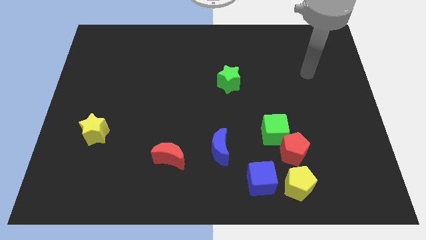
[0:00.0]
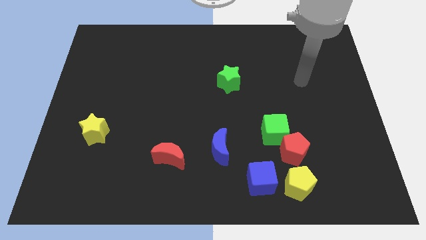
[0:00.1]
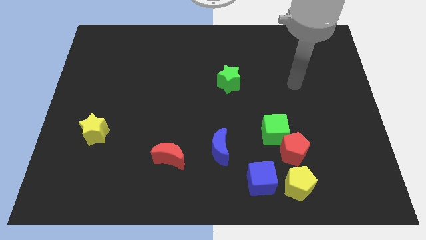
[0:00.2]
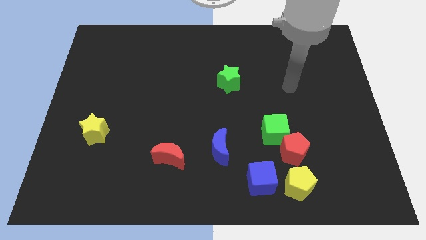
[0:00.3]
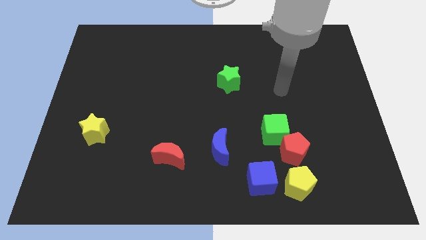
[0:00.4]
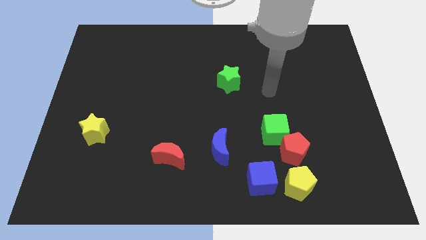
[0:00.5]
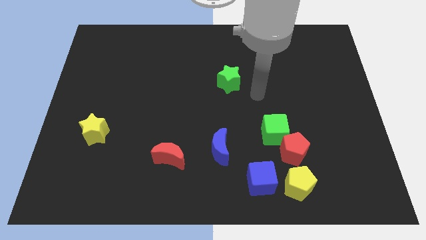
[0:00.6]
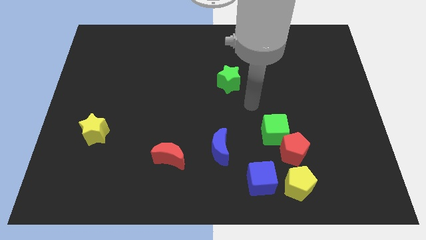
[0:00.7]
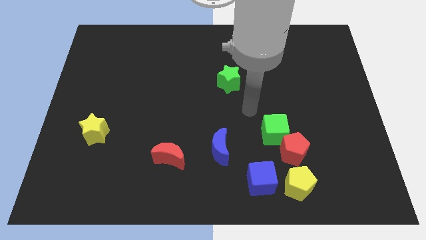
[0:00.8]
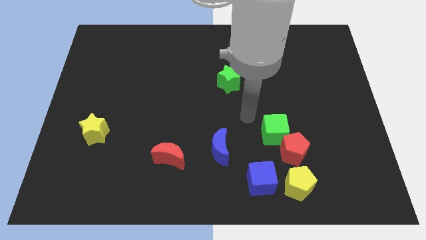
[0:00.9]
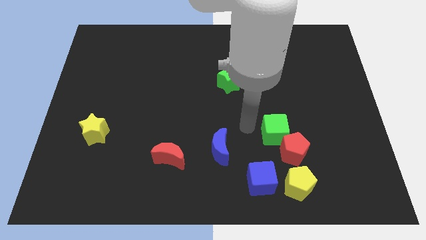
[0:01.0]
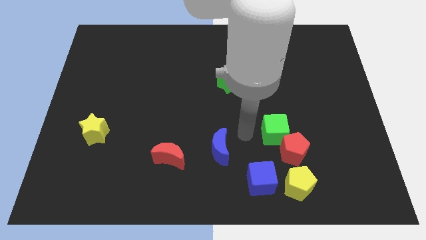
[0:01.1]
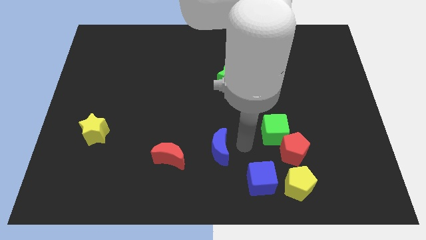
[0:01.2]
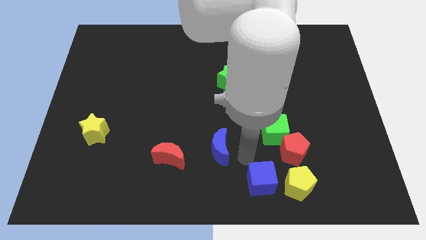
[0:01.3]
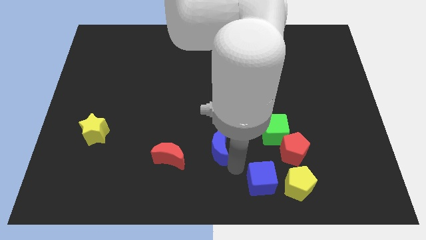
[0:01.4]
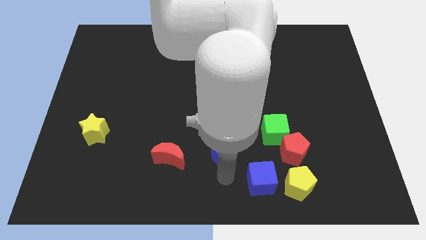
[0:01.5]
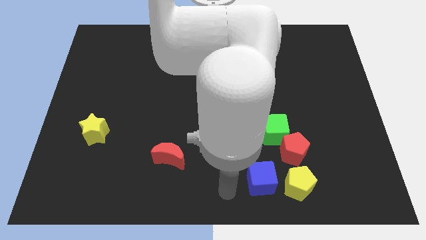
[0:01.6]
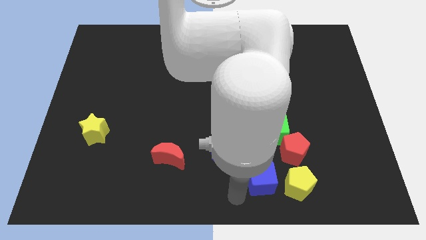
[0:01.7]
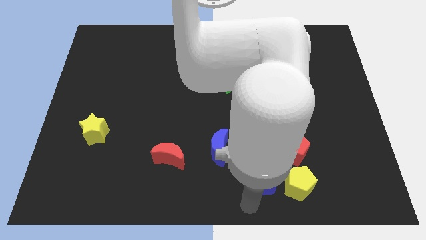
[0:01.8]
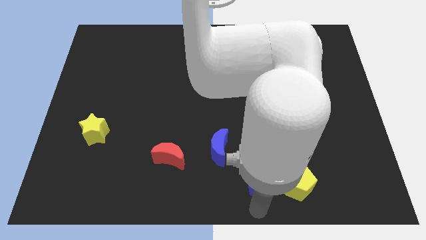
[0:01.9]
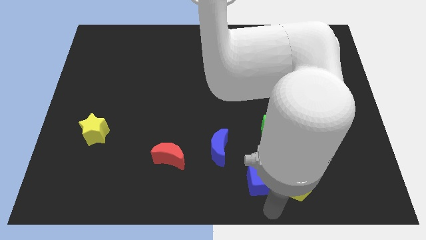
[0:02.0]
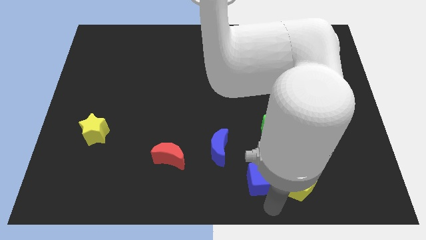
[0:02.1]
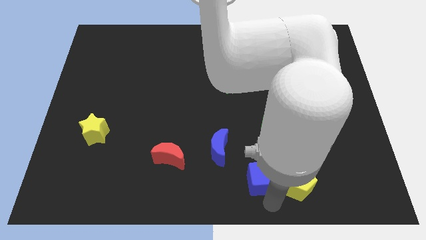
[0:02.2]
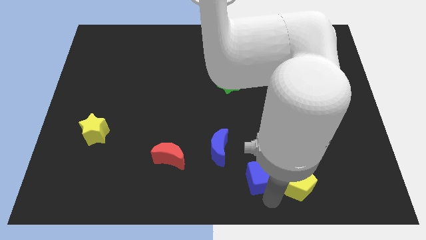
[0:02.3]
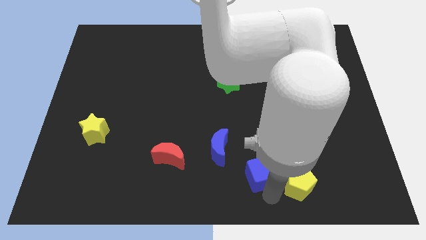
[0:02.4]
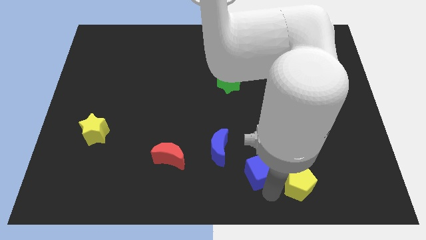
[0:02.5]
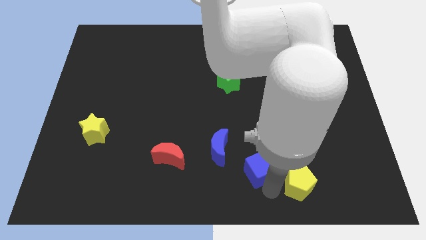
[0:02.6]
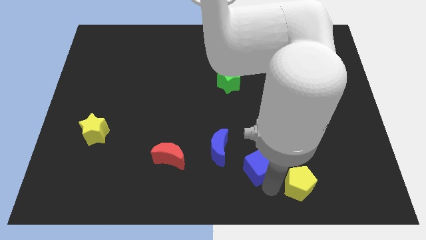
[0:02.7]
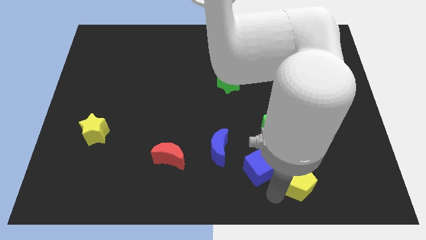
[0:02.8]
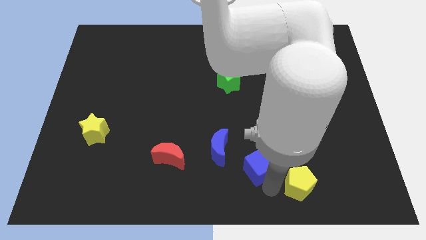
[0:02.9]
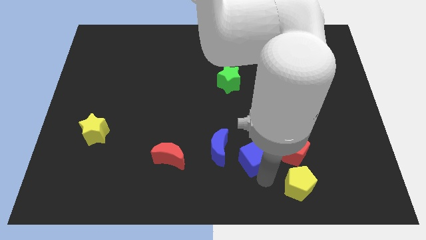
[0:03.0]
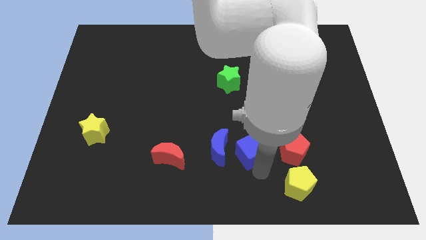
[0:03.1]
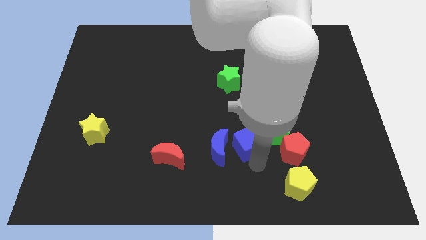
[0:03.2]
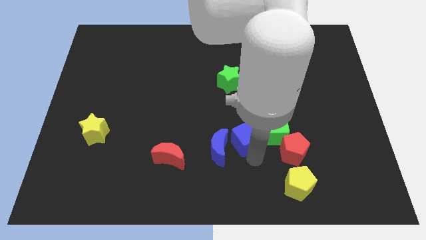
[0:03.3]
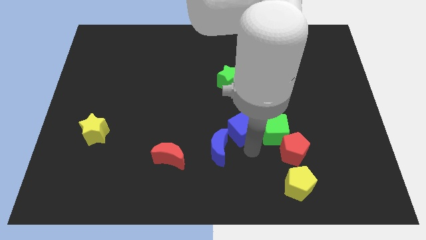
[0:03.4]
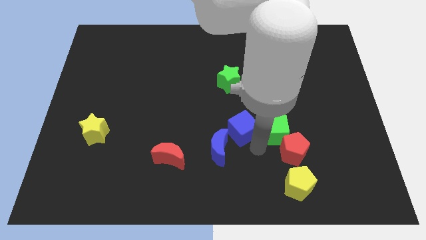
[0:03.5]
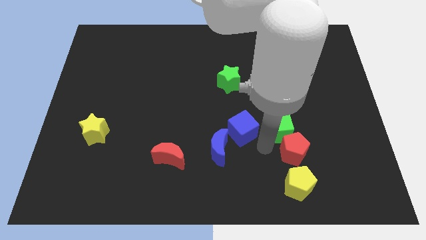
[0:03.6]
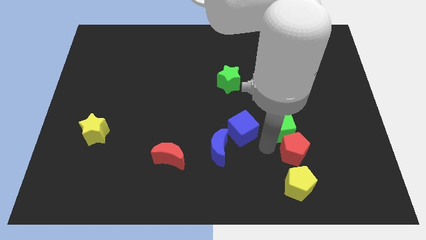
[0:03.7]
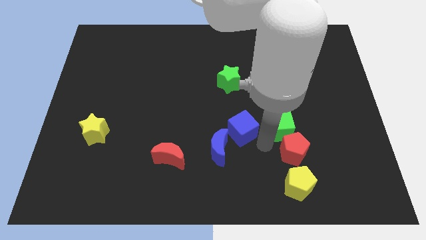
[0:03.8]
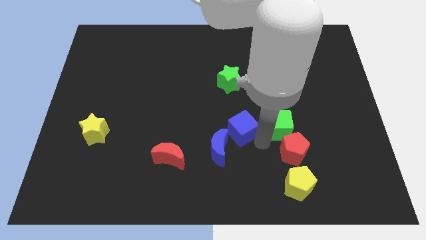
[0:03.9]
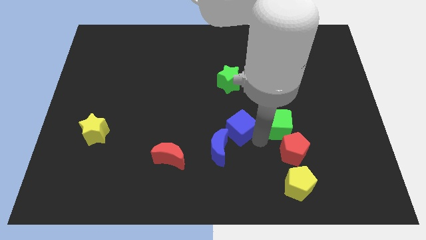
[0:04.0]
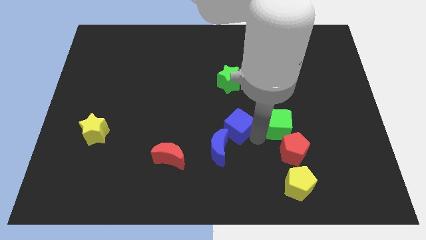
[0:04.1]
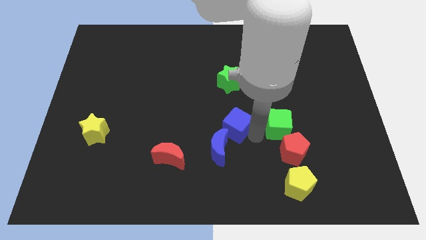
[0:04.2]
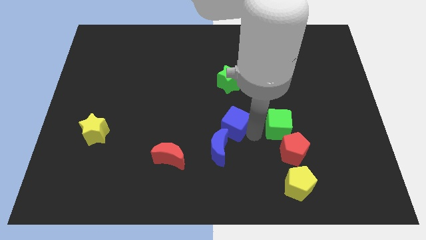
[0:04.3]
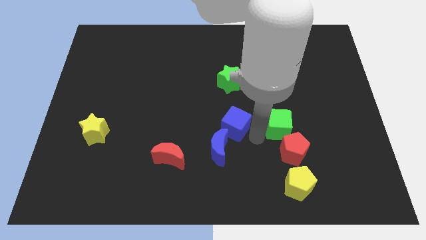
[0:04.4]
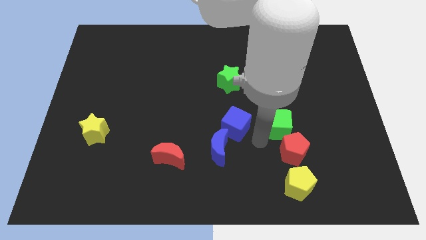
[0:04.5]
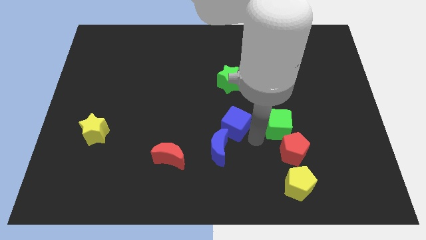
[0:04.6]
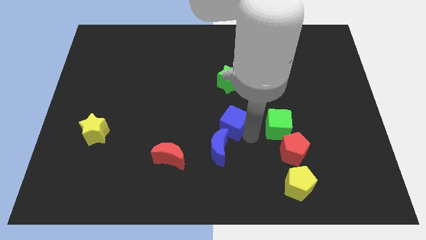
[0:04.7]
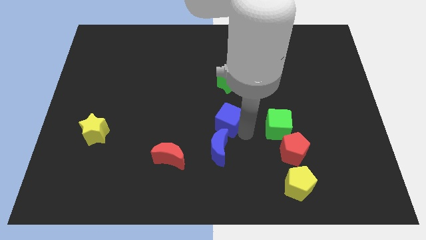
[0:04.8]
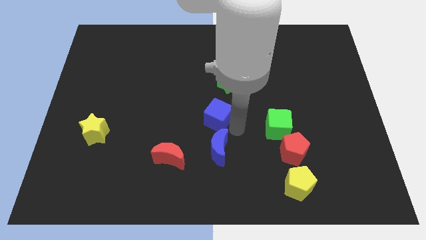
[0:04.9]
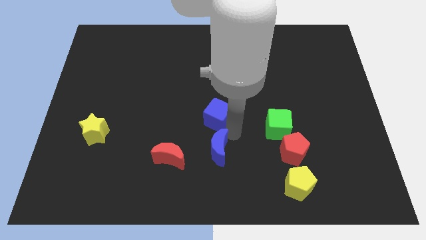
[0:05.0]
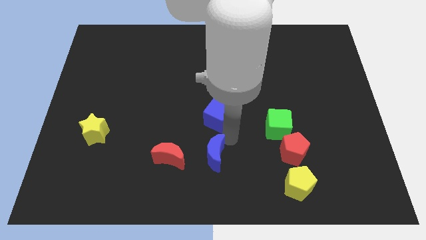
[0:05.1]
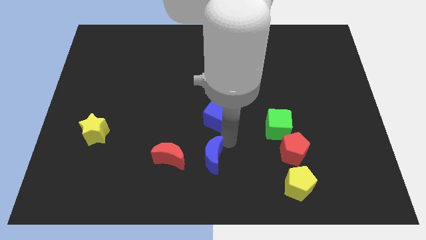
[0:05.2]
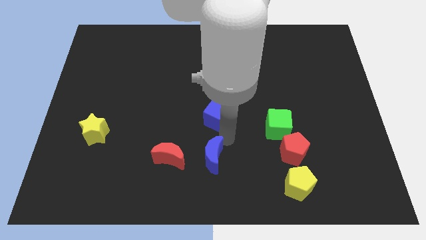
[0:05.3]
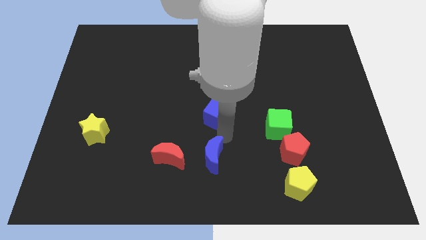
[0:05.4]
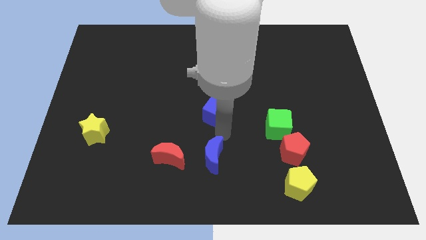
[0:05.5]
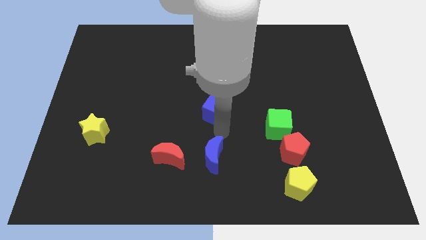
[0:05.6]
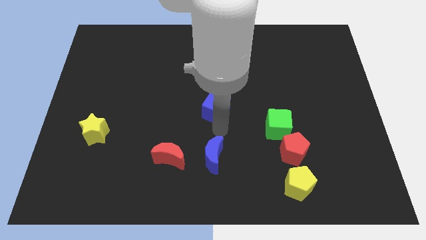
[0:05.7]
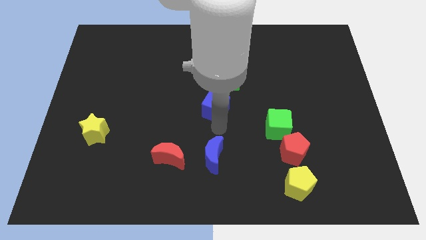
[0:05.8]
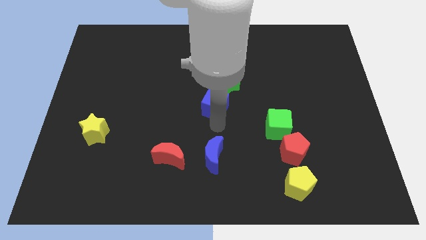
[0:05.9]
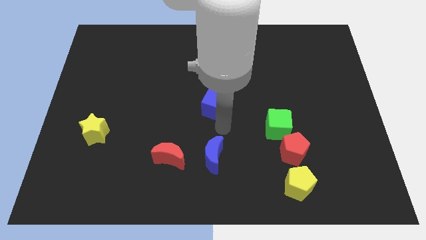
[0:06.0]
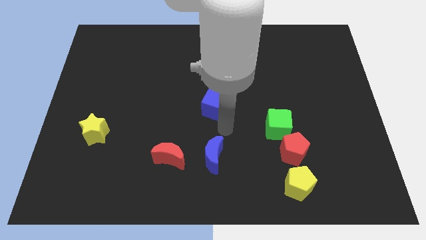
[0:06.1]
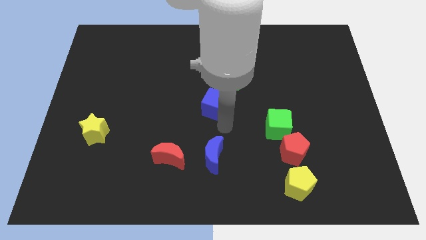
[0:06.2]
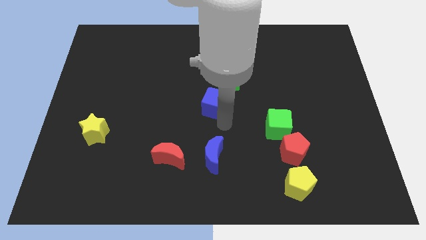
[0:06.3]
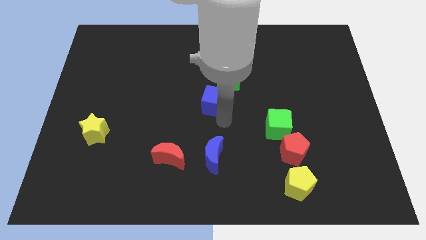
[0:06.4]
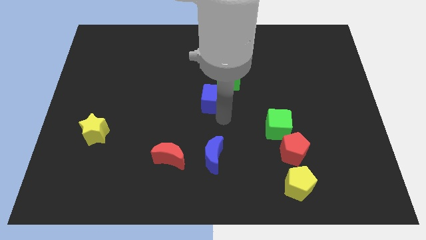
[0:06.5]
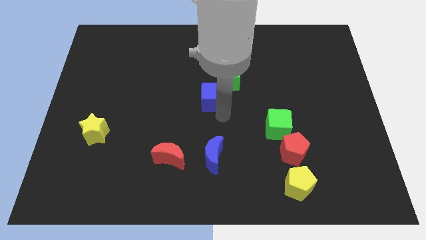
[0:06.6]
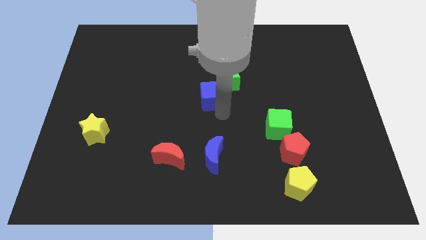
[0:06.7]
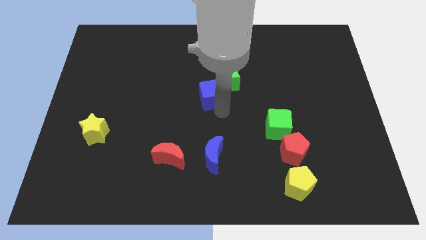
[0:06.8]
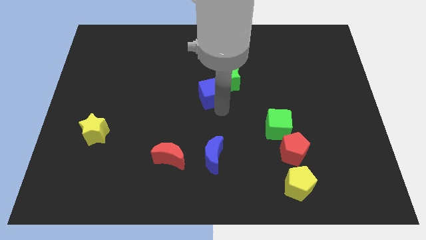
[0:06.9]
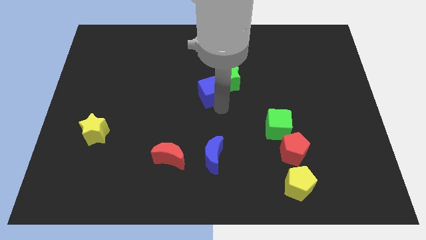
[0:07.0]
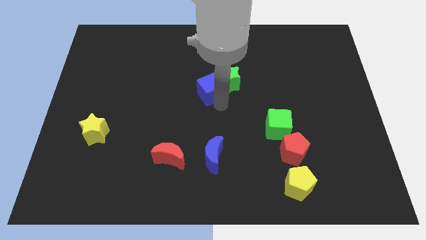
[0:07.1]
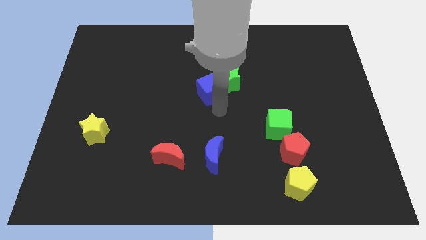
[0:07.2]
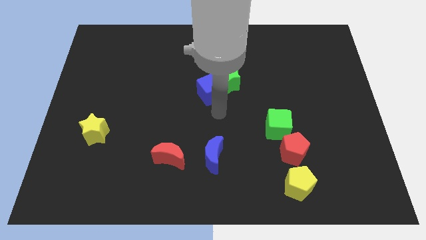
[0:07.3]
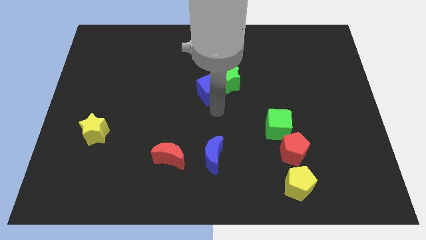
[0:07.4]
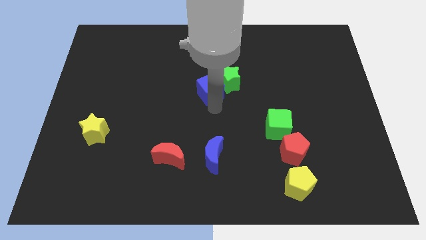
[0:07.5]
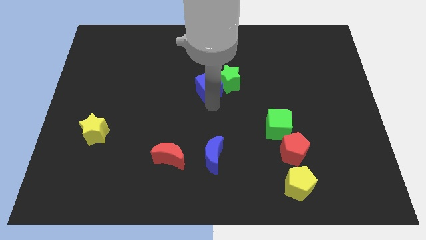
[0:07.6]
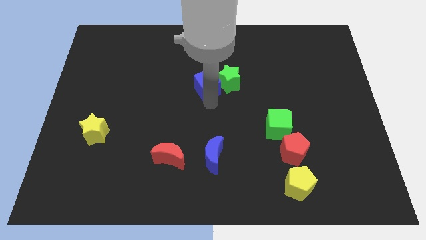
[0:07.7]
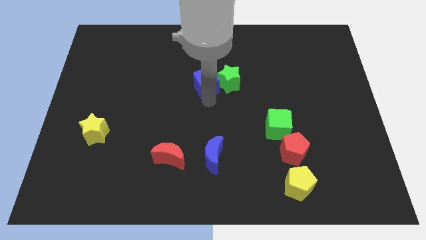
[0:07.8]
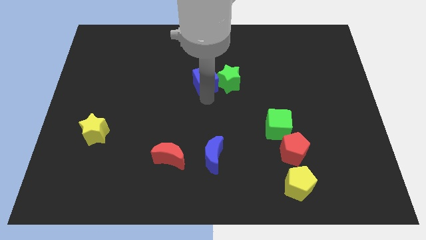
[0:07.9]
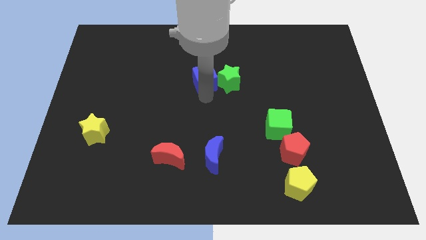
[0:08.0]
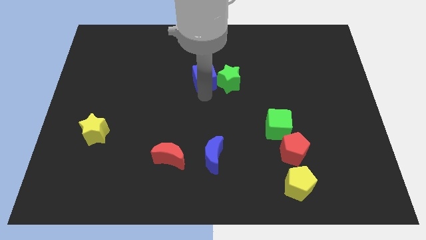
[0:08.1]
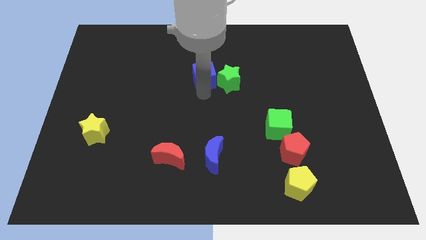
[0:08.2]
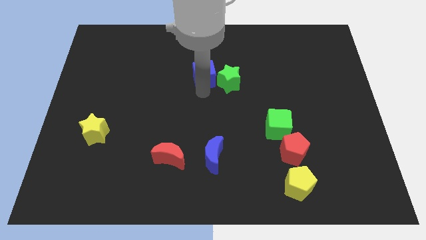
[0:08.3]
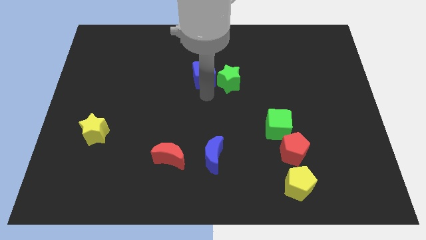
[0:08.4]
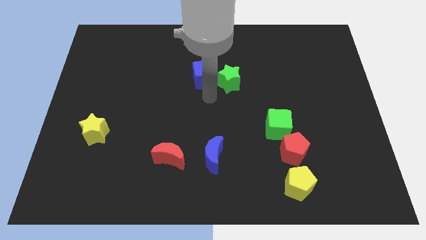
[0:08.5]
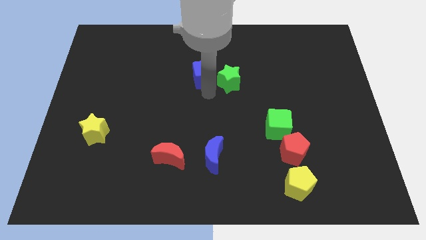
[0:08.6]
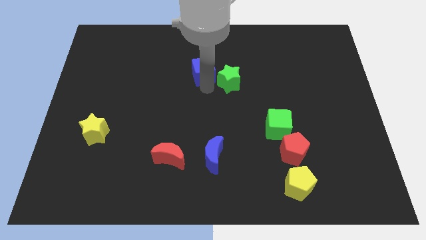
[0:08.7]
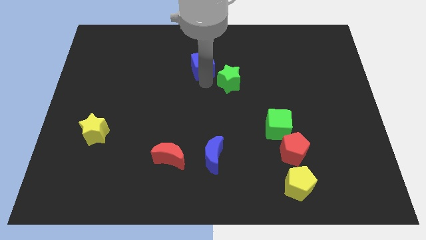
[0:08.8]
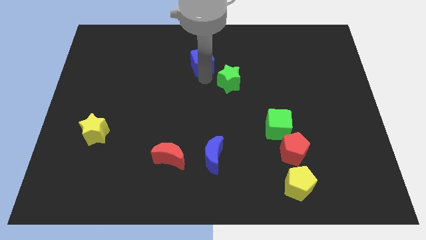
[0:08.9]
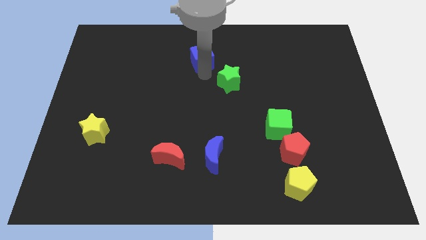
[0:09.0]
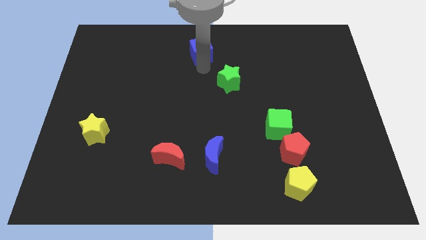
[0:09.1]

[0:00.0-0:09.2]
put the blue cube to the towards your base
